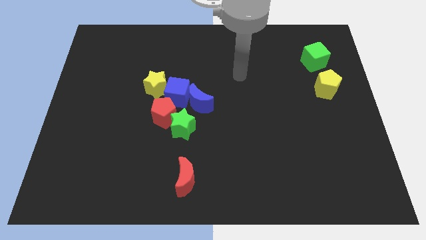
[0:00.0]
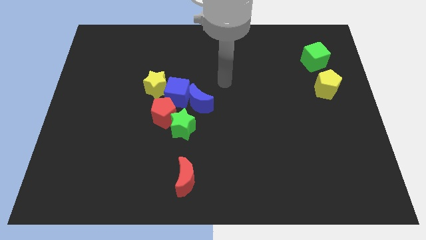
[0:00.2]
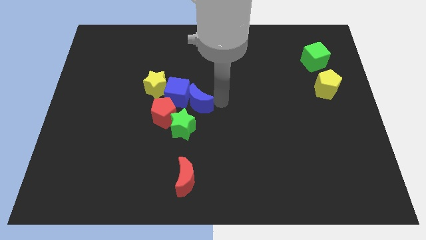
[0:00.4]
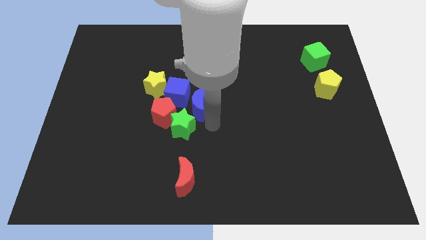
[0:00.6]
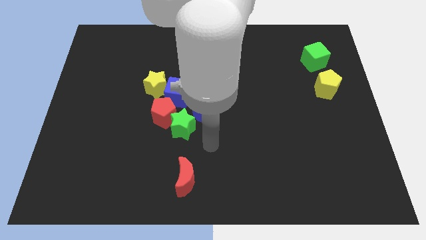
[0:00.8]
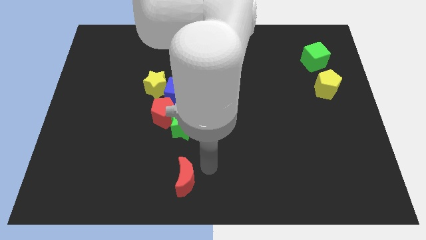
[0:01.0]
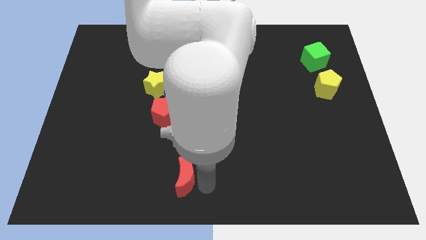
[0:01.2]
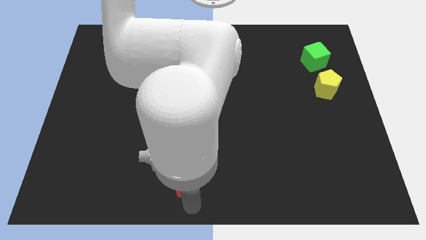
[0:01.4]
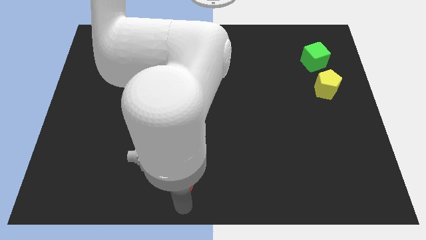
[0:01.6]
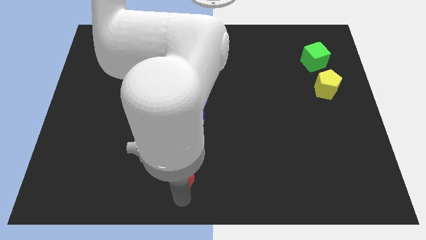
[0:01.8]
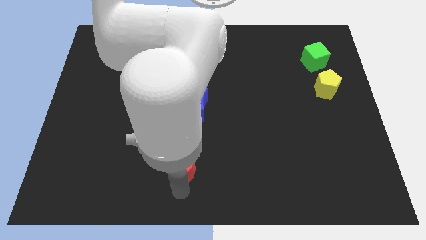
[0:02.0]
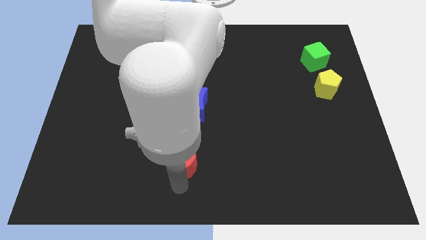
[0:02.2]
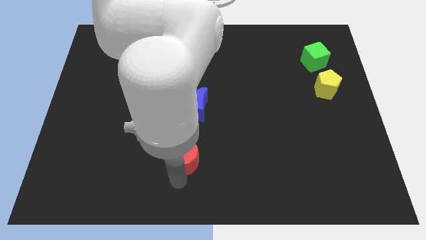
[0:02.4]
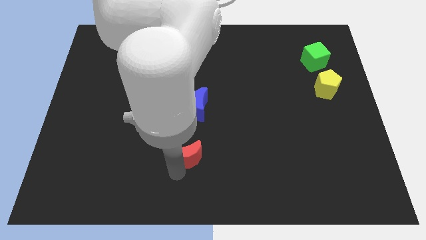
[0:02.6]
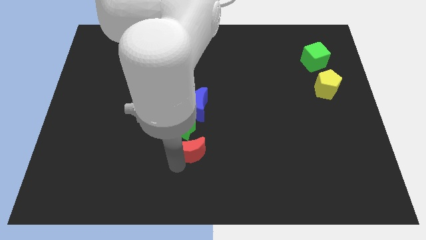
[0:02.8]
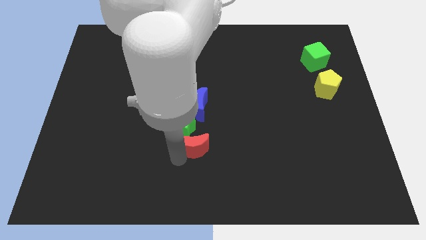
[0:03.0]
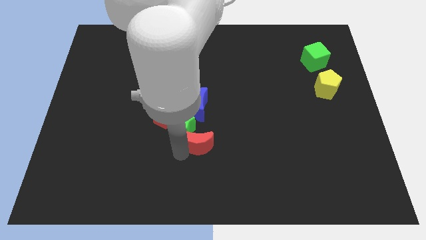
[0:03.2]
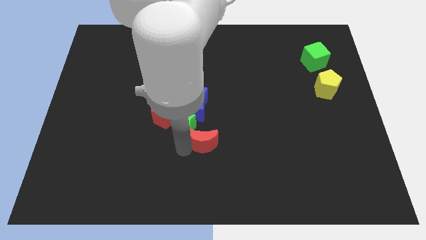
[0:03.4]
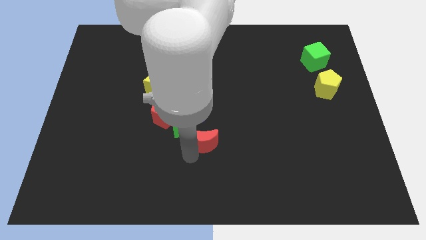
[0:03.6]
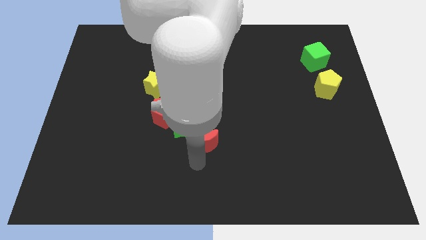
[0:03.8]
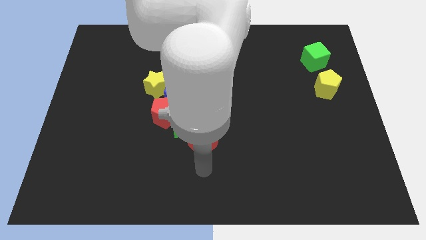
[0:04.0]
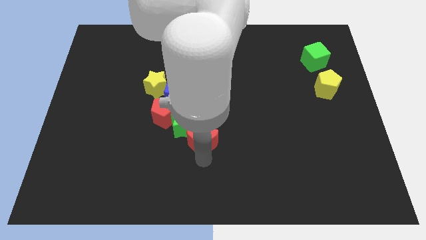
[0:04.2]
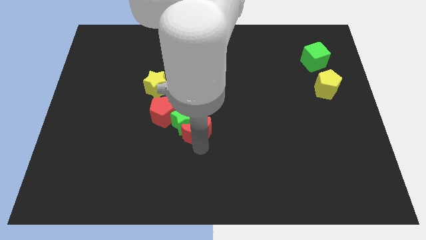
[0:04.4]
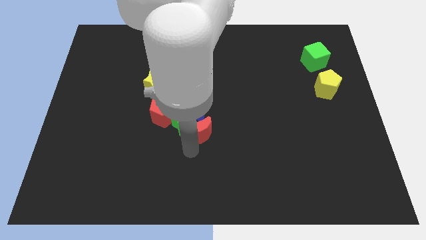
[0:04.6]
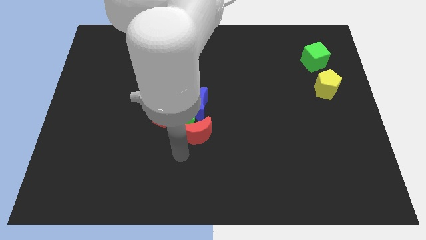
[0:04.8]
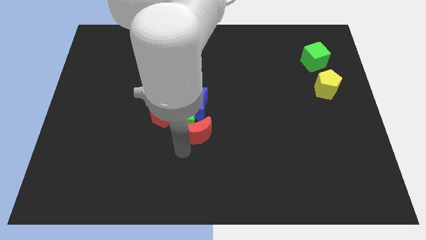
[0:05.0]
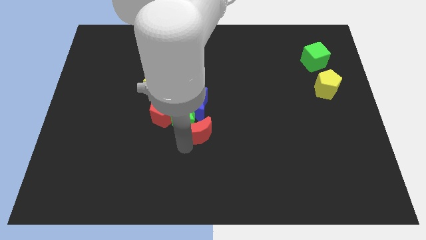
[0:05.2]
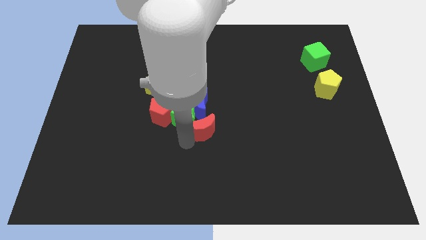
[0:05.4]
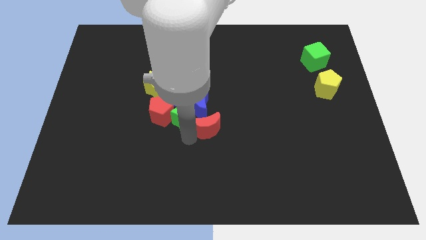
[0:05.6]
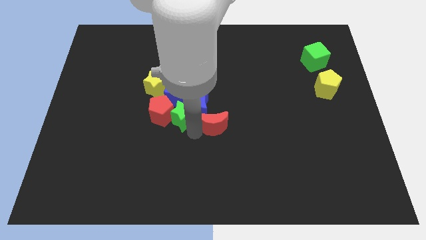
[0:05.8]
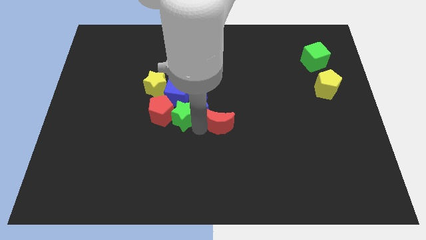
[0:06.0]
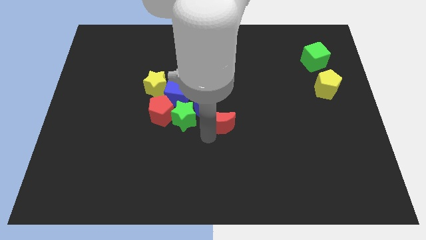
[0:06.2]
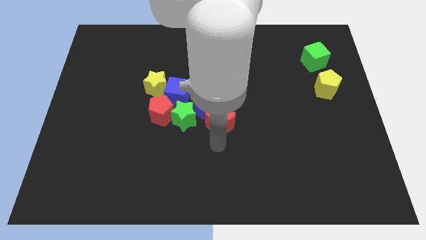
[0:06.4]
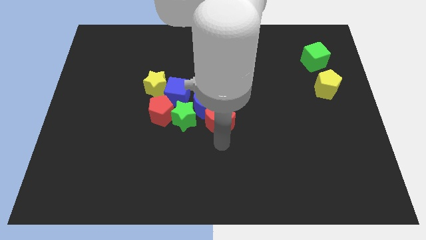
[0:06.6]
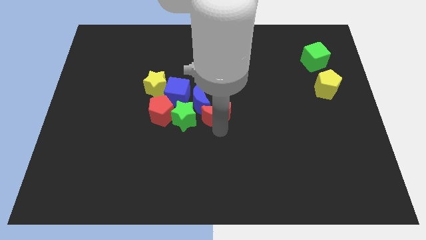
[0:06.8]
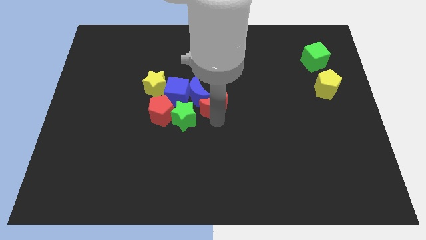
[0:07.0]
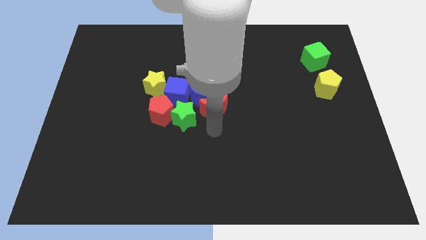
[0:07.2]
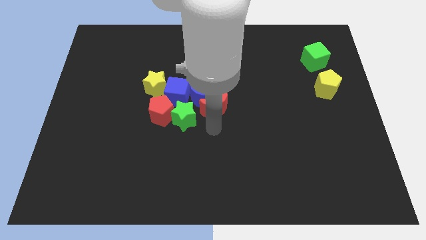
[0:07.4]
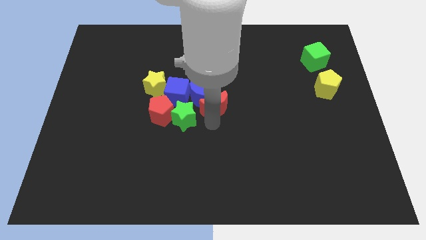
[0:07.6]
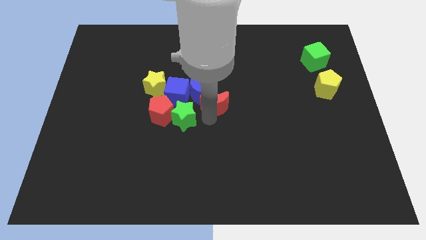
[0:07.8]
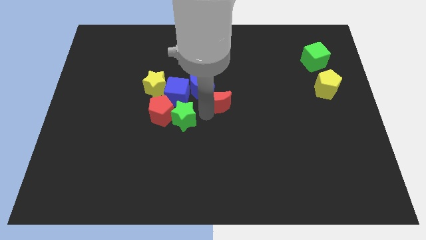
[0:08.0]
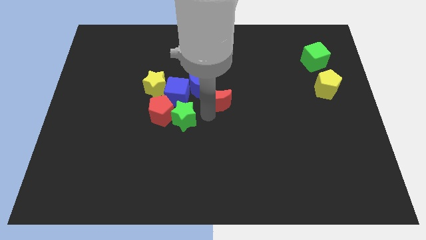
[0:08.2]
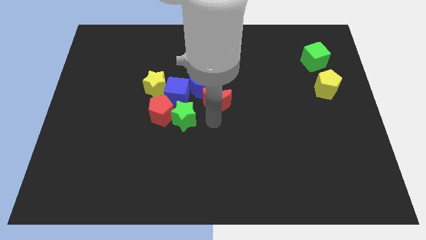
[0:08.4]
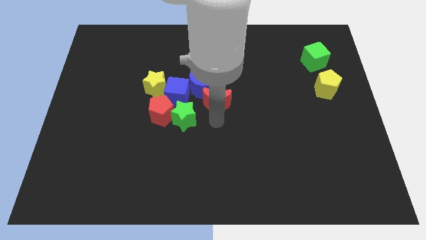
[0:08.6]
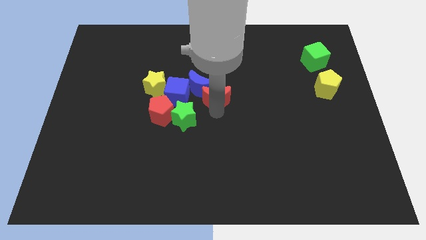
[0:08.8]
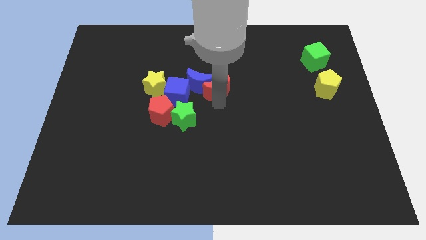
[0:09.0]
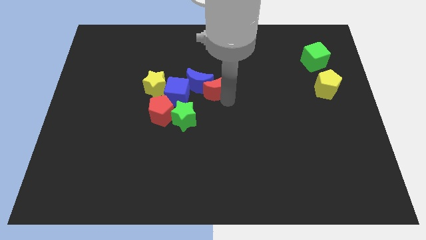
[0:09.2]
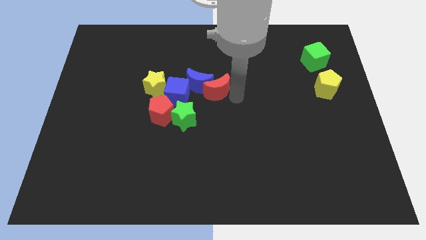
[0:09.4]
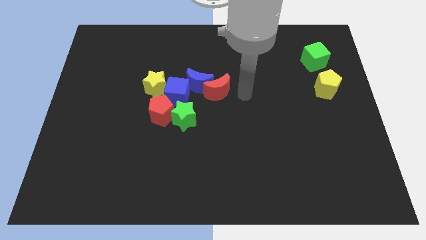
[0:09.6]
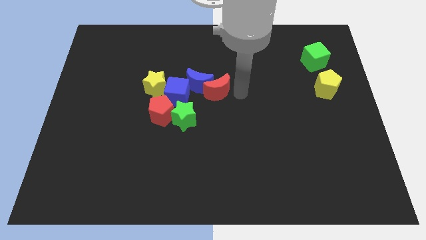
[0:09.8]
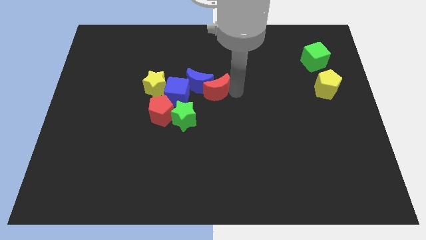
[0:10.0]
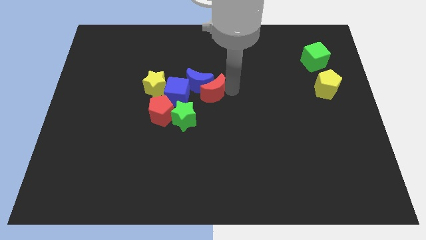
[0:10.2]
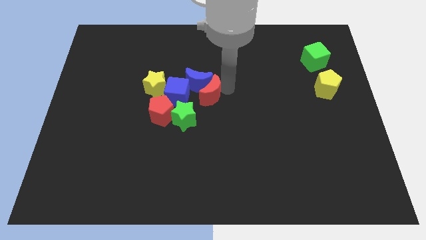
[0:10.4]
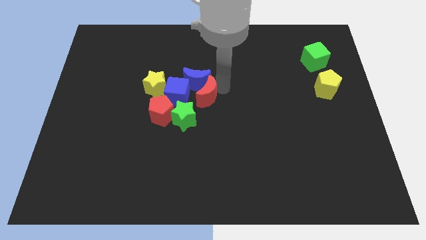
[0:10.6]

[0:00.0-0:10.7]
push the red moon to the top right side of the red pentagon

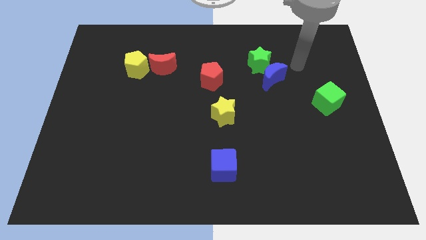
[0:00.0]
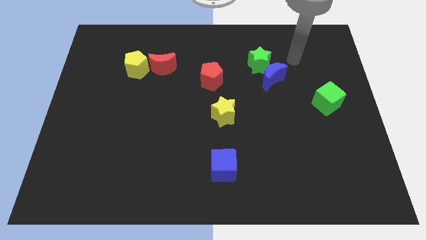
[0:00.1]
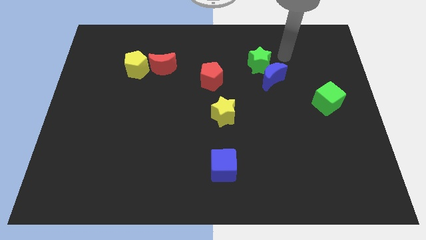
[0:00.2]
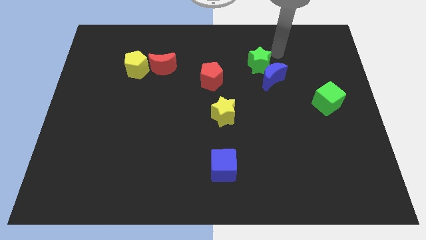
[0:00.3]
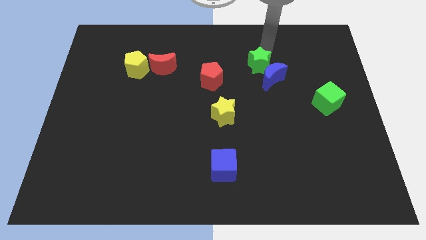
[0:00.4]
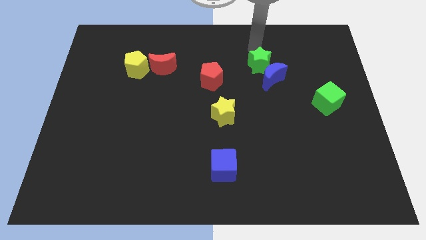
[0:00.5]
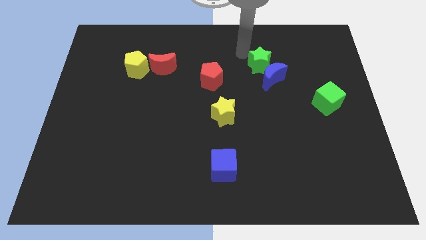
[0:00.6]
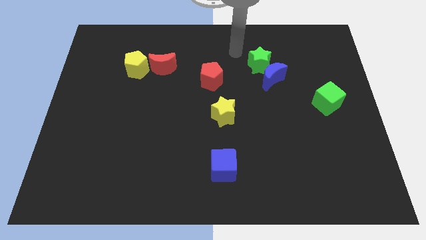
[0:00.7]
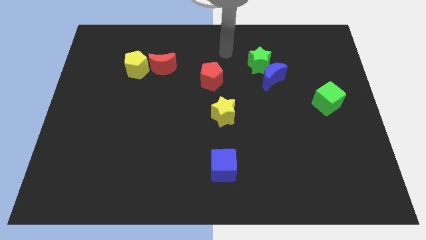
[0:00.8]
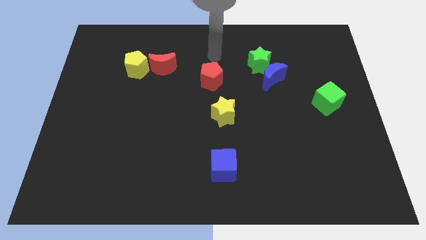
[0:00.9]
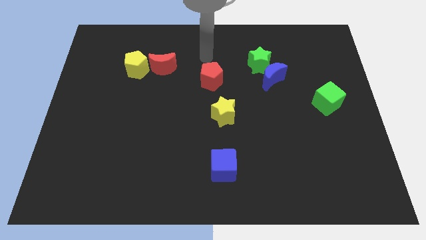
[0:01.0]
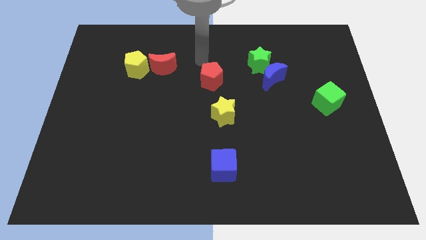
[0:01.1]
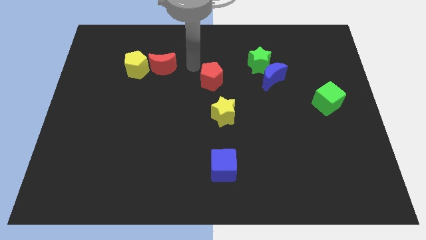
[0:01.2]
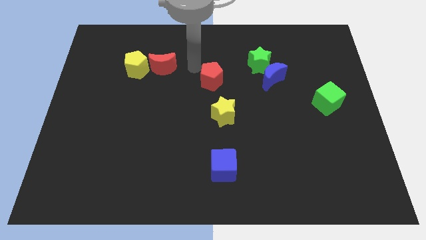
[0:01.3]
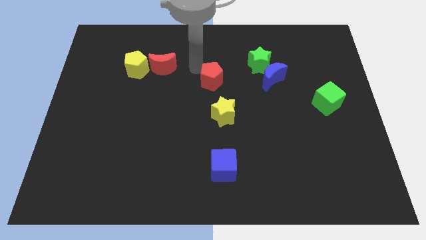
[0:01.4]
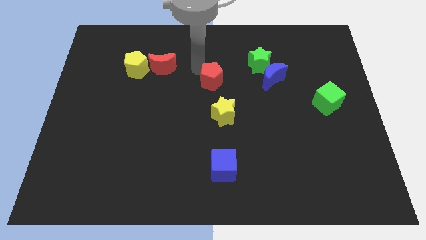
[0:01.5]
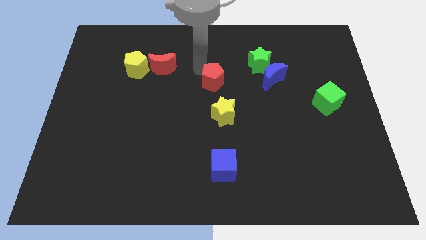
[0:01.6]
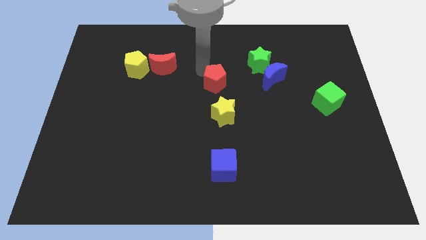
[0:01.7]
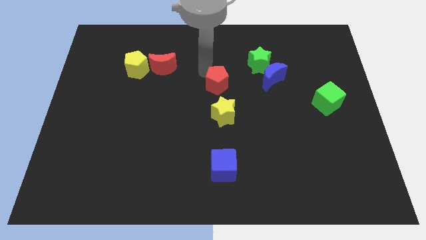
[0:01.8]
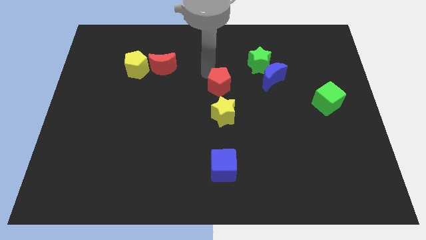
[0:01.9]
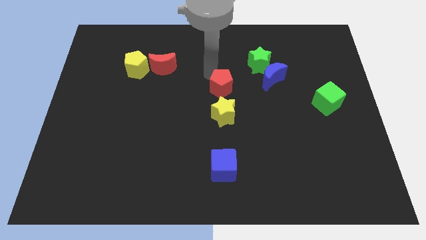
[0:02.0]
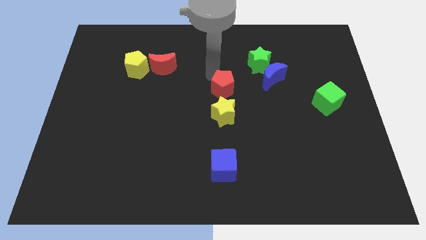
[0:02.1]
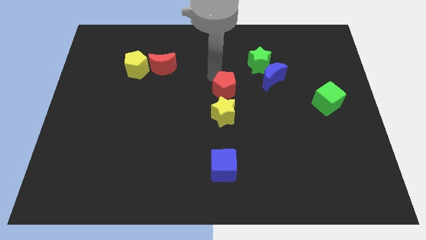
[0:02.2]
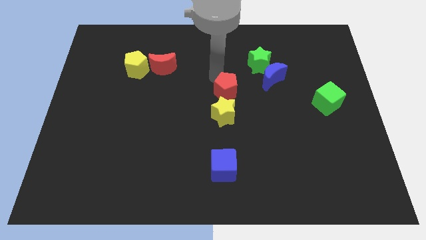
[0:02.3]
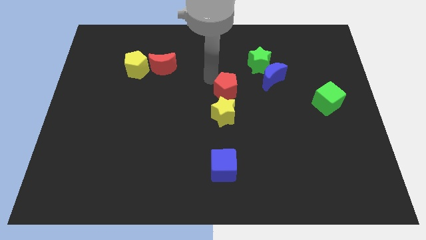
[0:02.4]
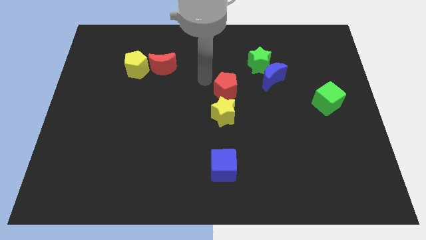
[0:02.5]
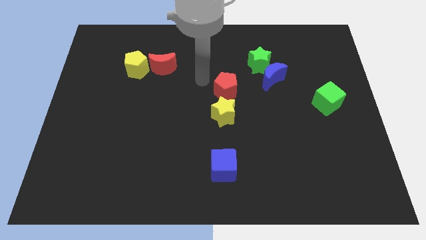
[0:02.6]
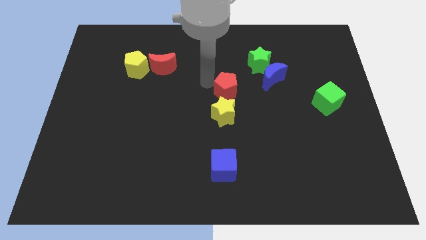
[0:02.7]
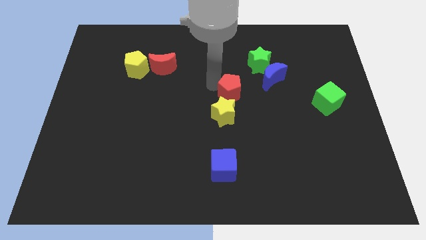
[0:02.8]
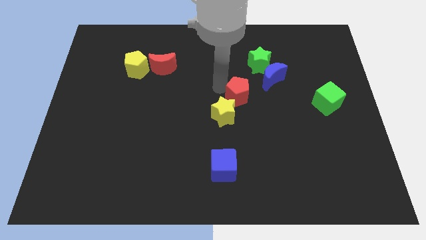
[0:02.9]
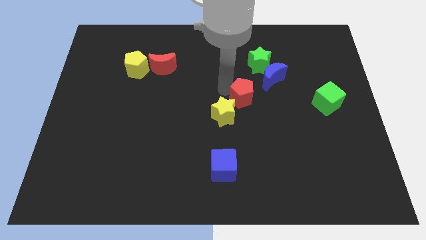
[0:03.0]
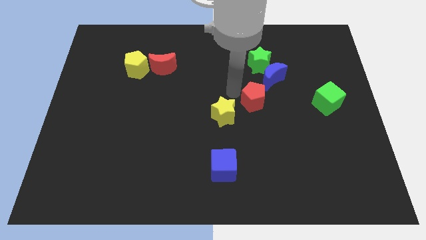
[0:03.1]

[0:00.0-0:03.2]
push the red pentagon just right of the yellow star
